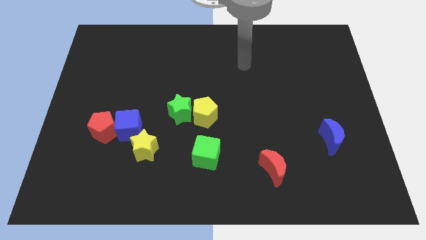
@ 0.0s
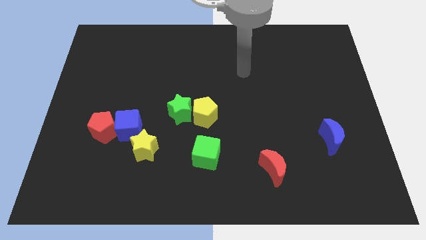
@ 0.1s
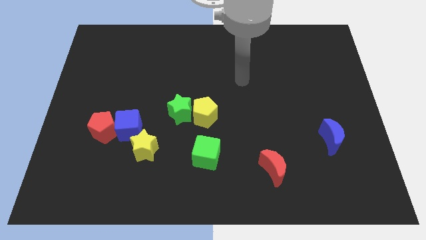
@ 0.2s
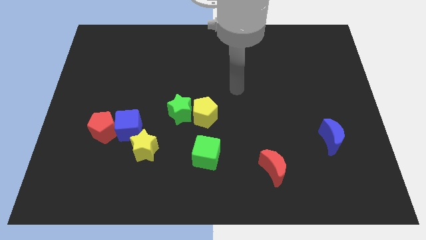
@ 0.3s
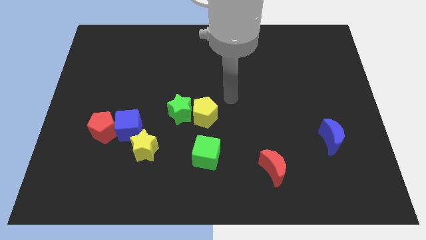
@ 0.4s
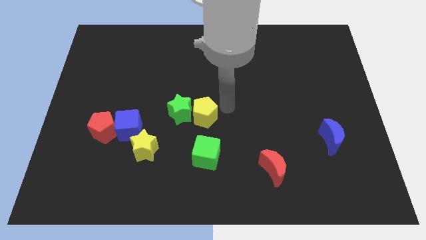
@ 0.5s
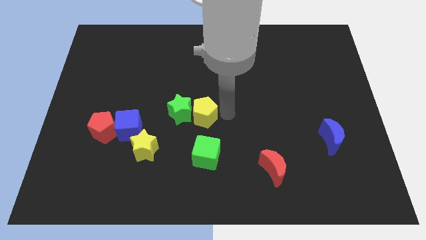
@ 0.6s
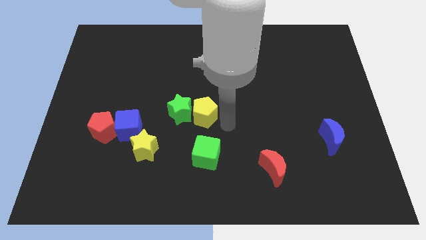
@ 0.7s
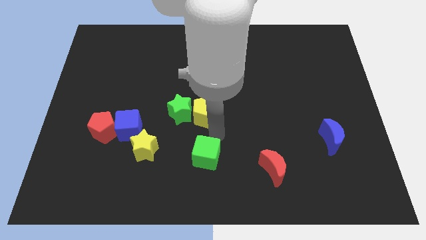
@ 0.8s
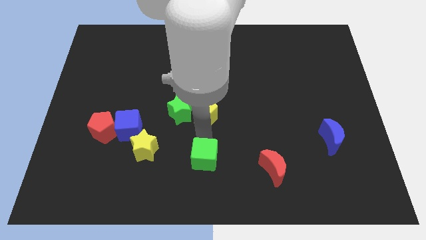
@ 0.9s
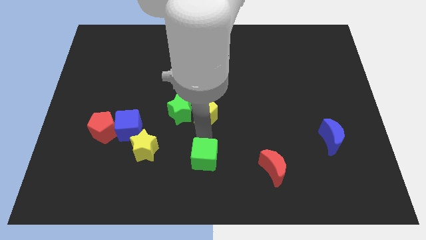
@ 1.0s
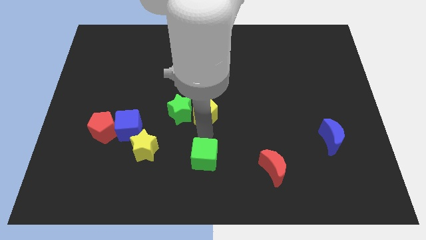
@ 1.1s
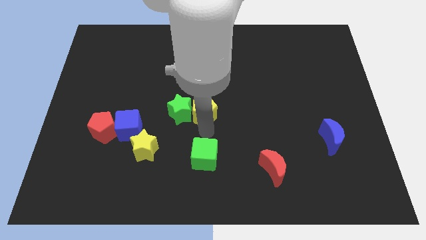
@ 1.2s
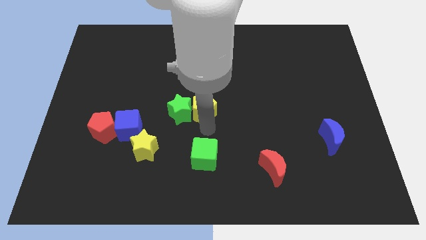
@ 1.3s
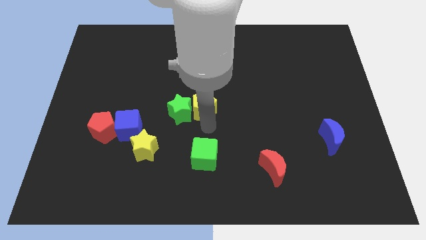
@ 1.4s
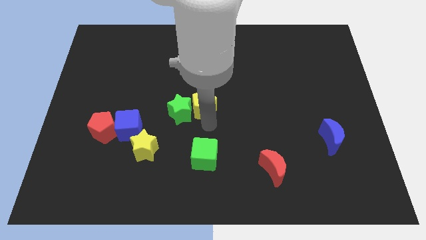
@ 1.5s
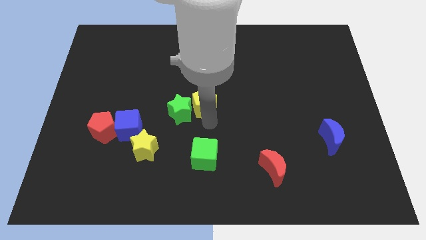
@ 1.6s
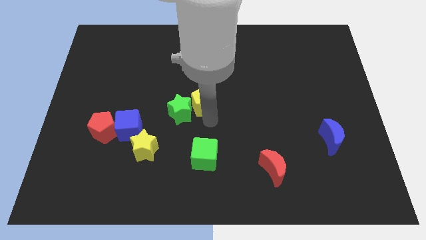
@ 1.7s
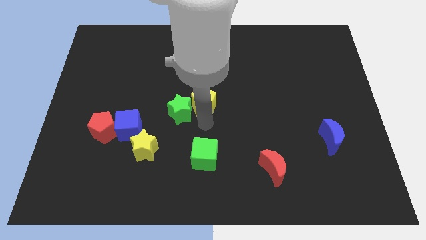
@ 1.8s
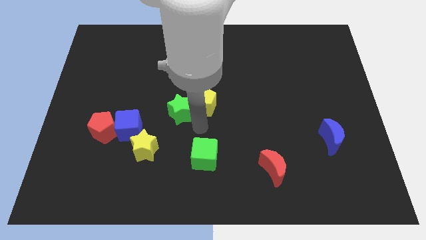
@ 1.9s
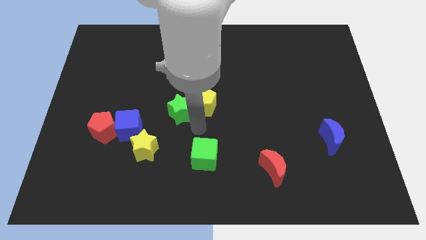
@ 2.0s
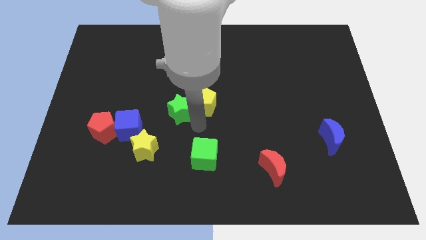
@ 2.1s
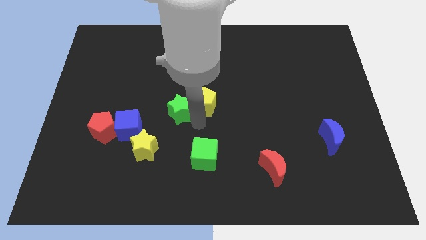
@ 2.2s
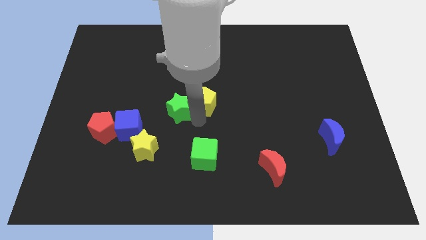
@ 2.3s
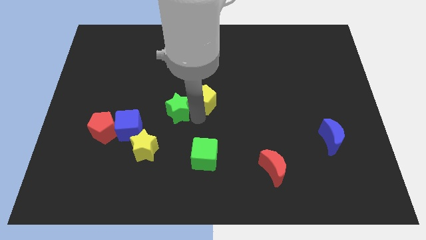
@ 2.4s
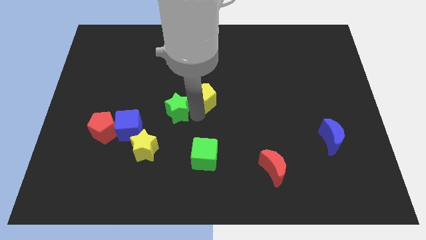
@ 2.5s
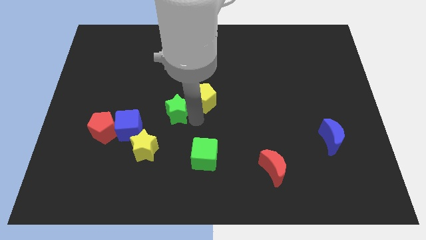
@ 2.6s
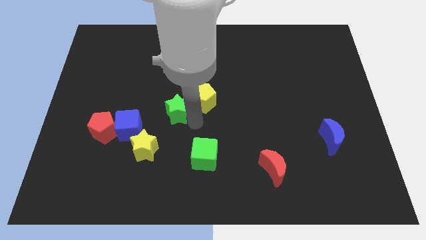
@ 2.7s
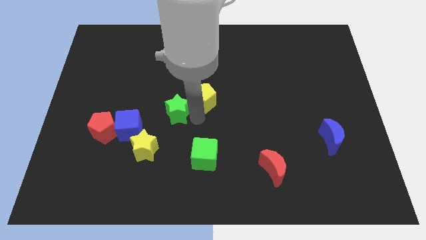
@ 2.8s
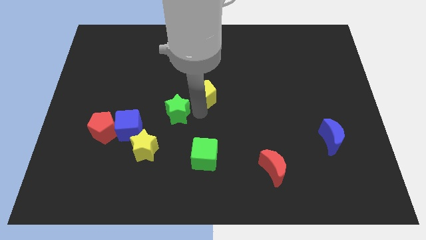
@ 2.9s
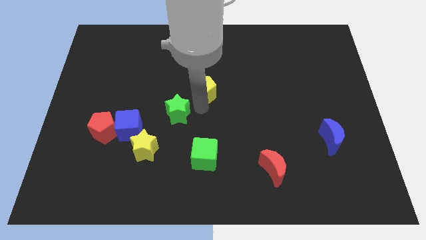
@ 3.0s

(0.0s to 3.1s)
slide the yellow pentagon up a little

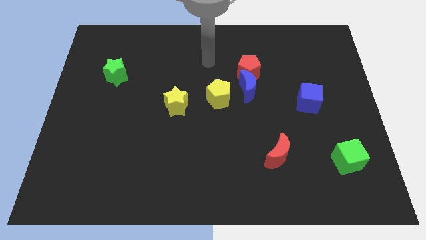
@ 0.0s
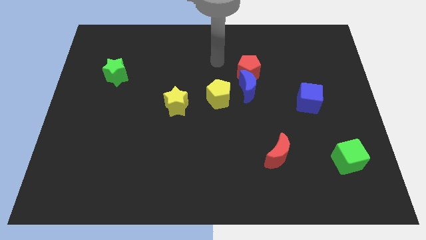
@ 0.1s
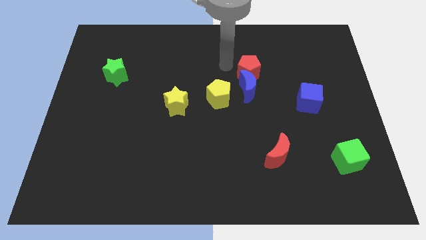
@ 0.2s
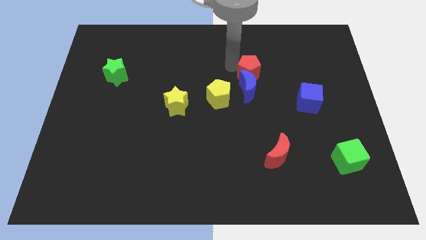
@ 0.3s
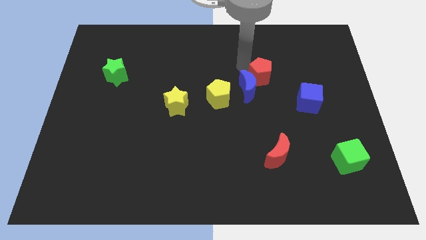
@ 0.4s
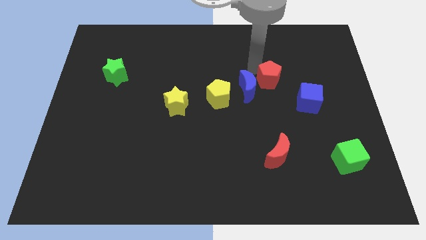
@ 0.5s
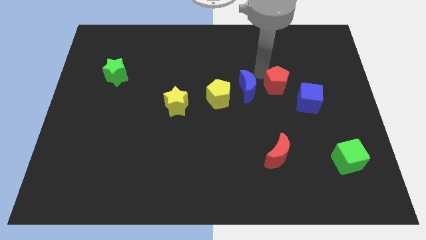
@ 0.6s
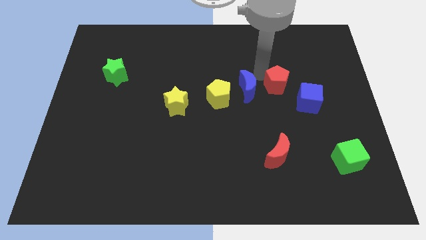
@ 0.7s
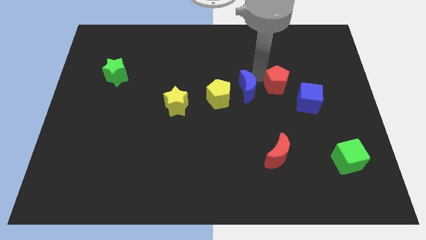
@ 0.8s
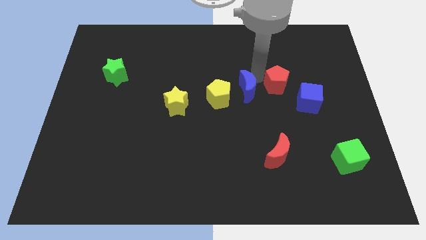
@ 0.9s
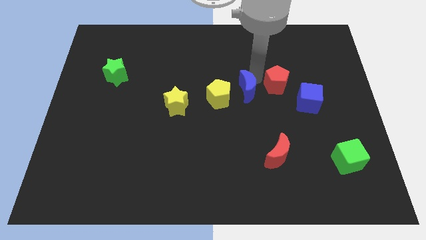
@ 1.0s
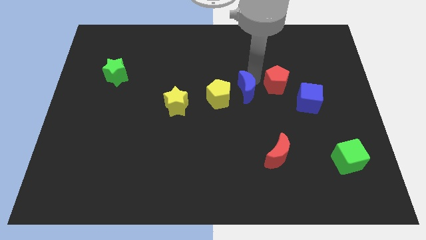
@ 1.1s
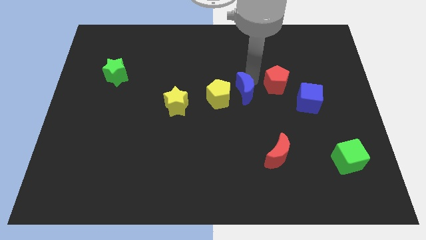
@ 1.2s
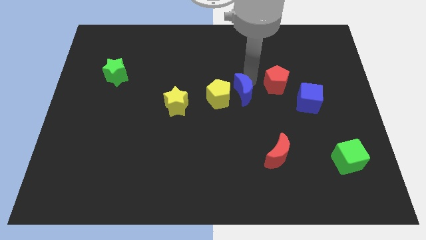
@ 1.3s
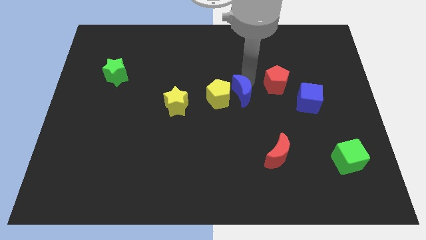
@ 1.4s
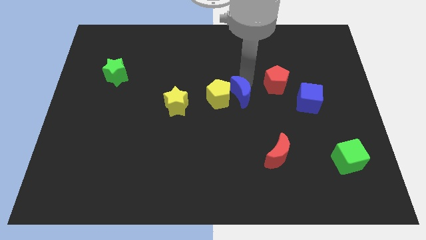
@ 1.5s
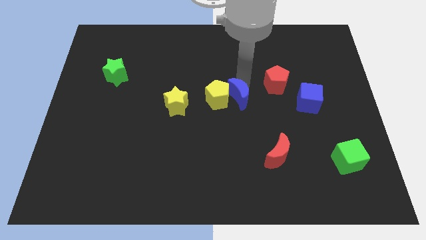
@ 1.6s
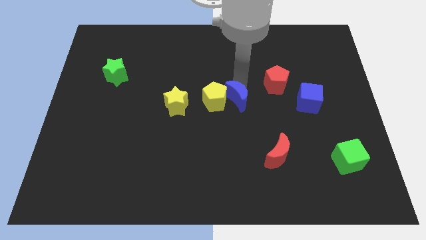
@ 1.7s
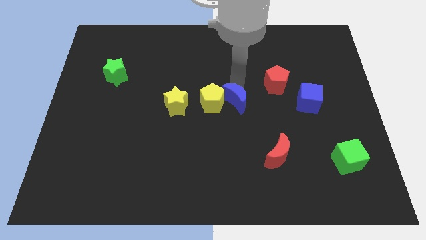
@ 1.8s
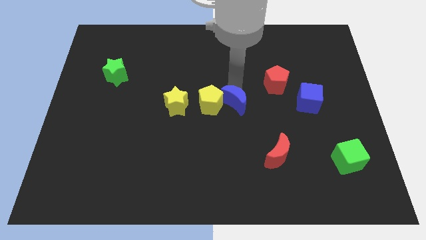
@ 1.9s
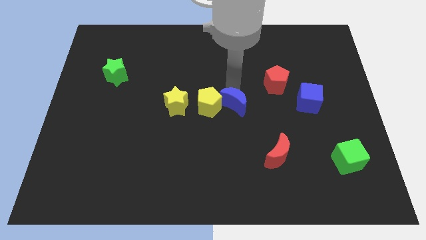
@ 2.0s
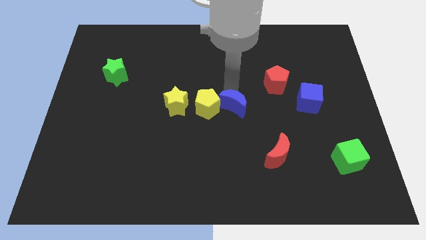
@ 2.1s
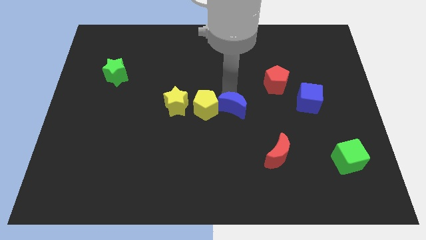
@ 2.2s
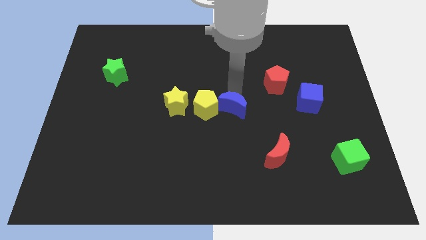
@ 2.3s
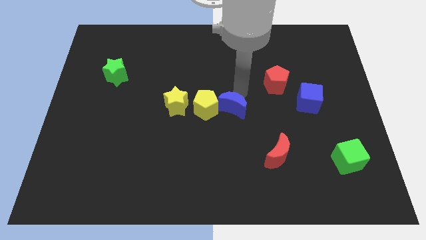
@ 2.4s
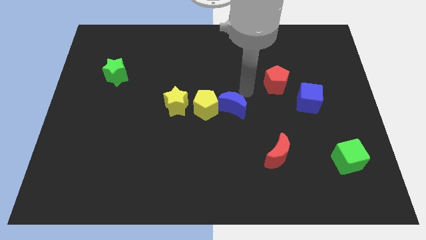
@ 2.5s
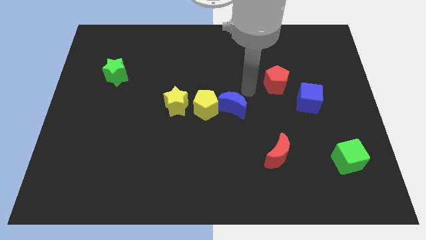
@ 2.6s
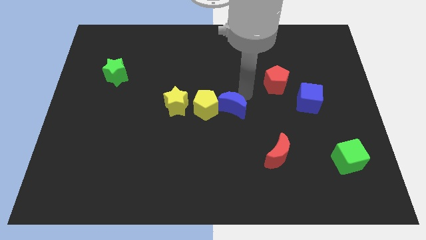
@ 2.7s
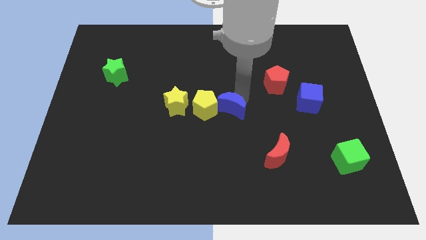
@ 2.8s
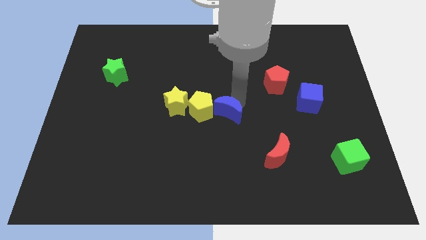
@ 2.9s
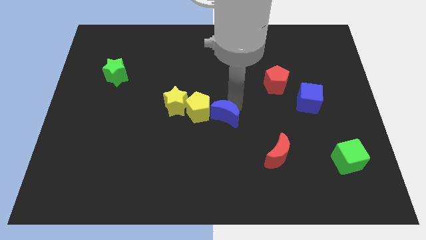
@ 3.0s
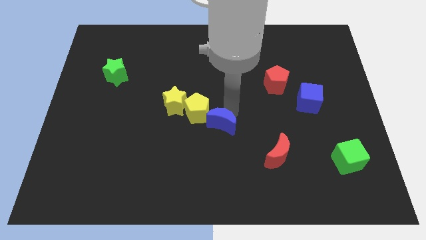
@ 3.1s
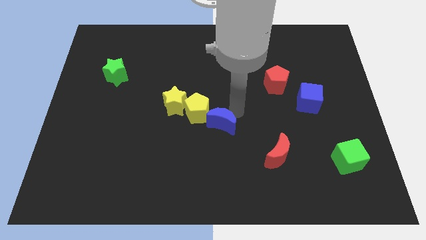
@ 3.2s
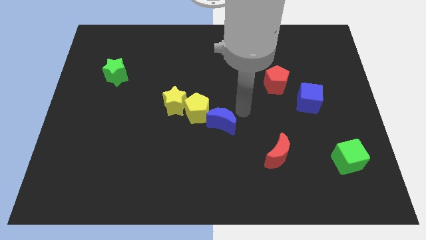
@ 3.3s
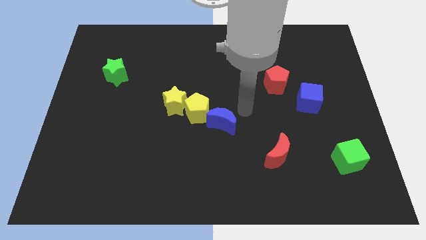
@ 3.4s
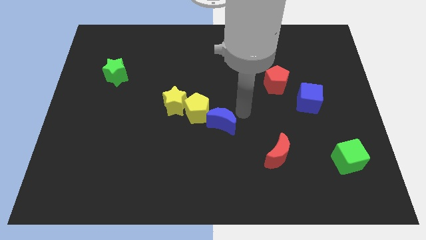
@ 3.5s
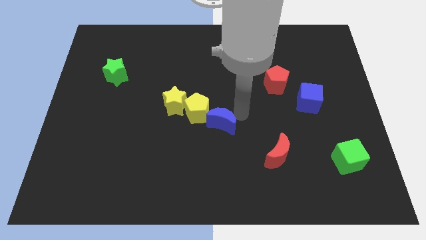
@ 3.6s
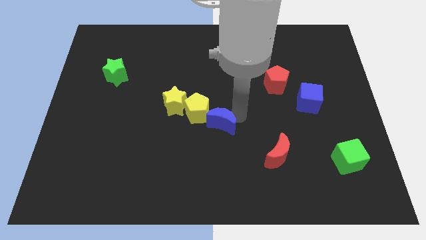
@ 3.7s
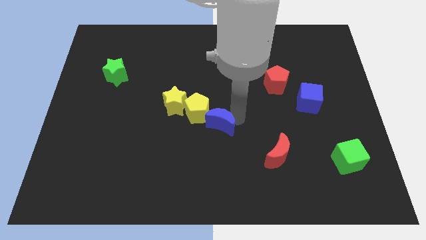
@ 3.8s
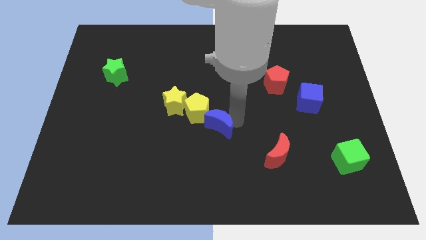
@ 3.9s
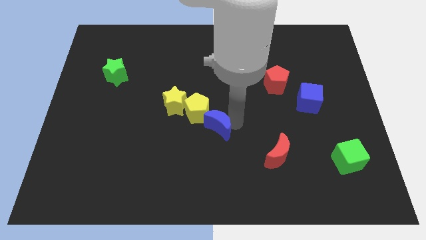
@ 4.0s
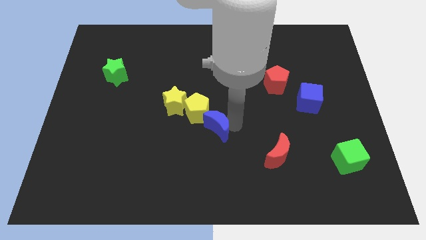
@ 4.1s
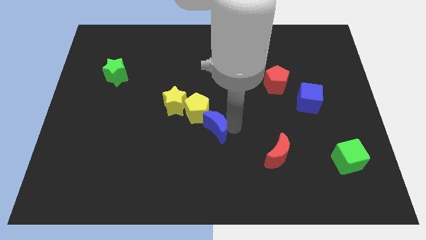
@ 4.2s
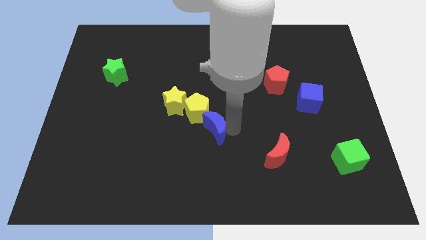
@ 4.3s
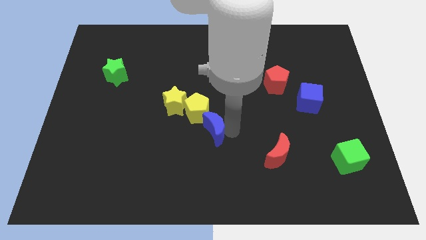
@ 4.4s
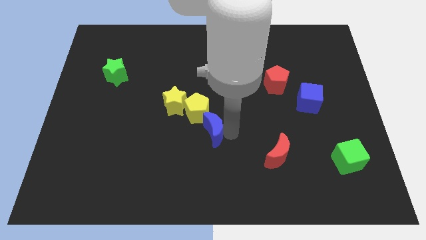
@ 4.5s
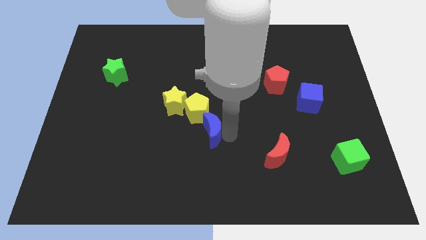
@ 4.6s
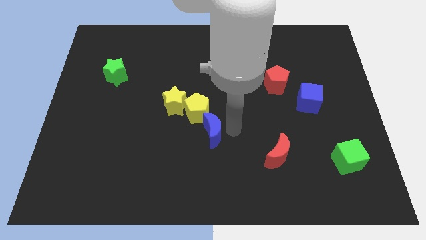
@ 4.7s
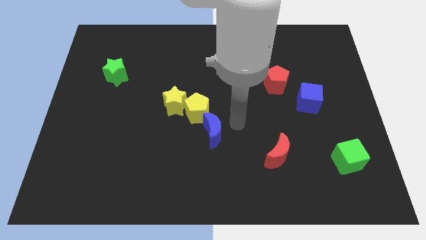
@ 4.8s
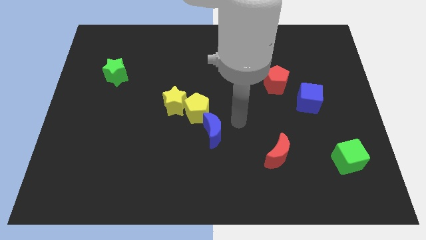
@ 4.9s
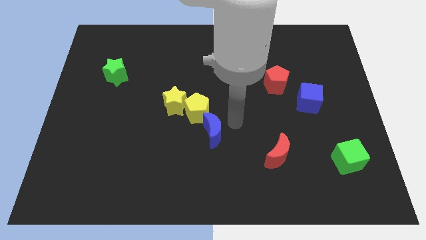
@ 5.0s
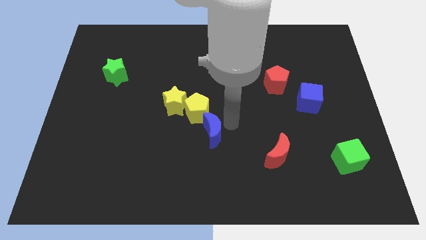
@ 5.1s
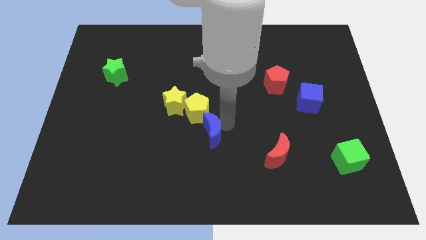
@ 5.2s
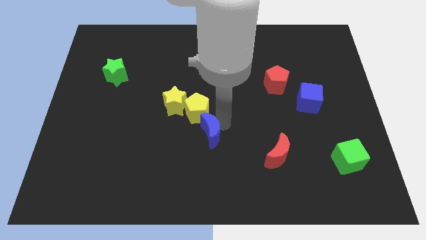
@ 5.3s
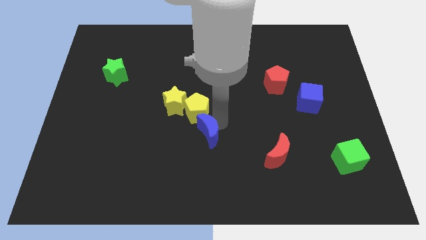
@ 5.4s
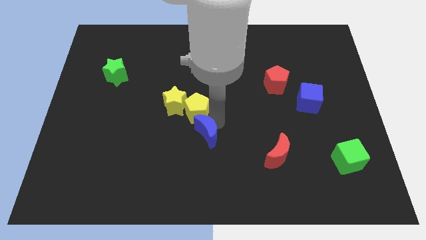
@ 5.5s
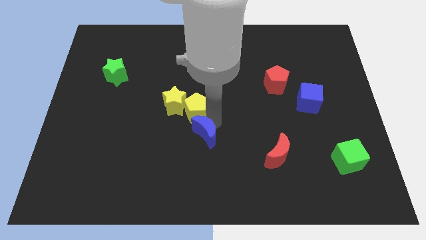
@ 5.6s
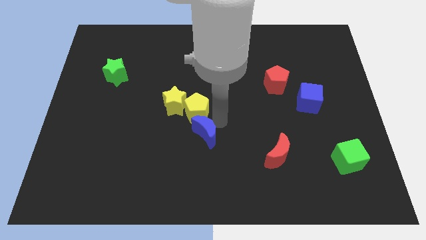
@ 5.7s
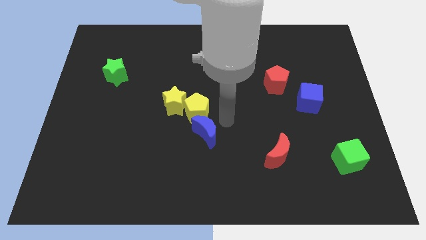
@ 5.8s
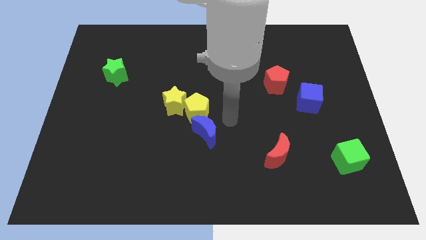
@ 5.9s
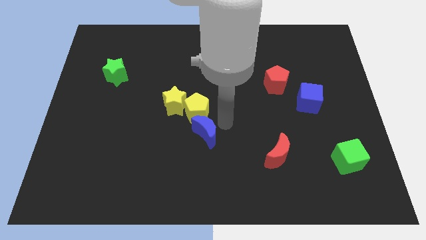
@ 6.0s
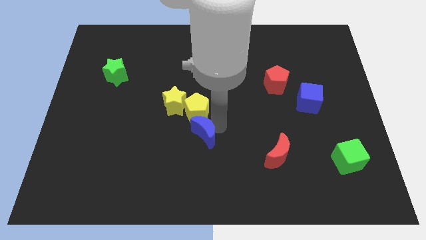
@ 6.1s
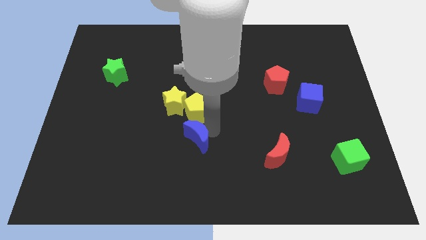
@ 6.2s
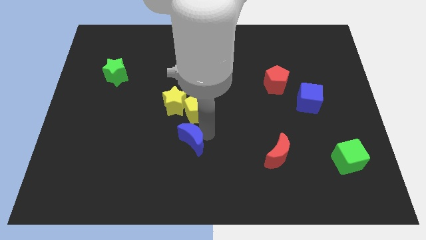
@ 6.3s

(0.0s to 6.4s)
move the blue moon downwards and left
